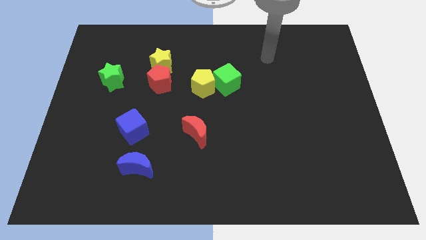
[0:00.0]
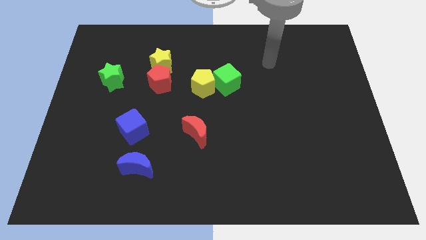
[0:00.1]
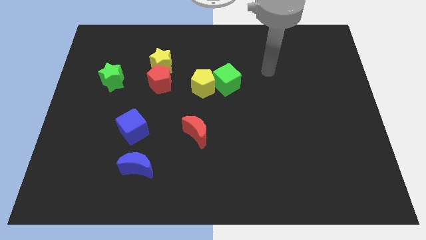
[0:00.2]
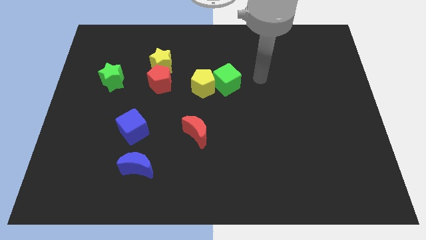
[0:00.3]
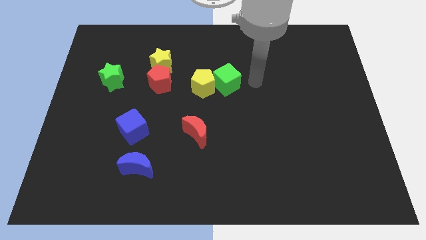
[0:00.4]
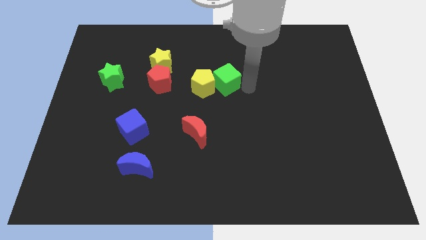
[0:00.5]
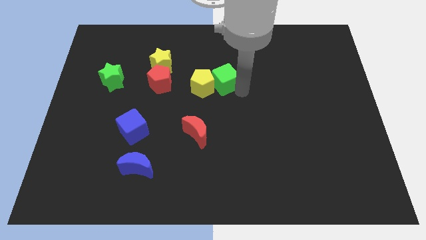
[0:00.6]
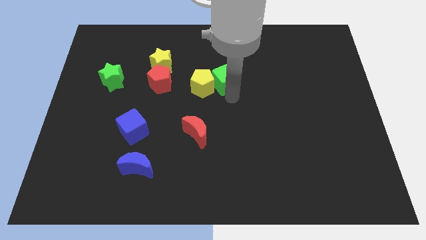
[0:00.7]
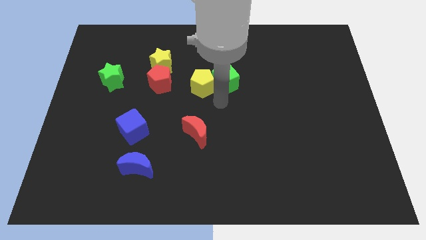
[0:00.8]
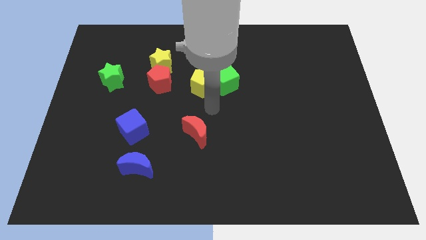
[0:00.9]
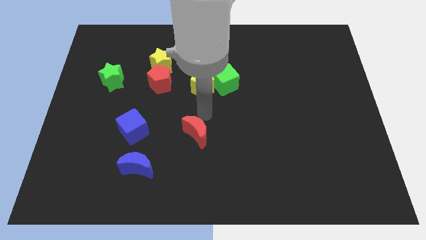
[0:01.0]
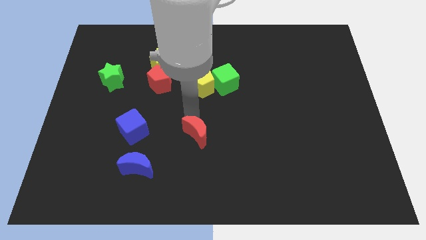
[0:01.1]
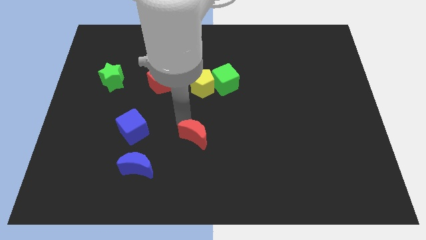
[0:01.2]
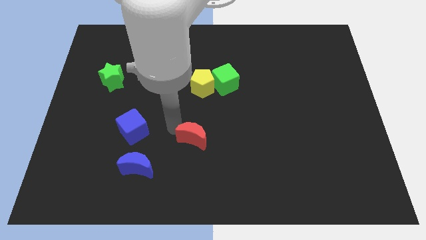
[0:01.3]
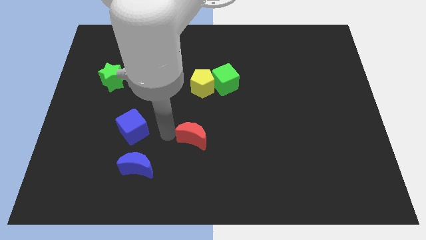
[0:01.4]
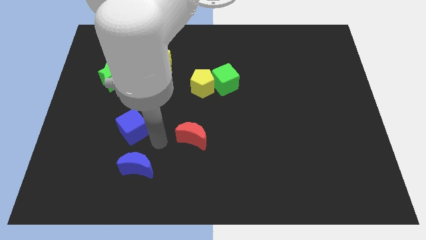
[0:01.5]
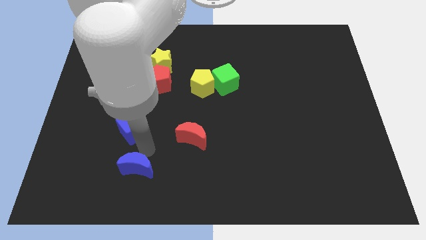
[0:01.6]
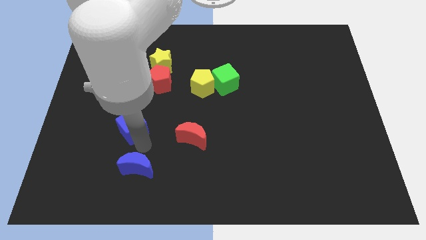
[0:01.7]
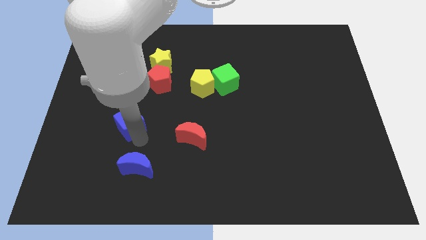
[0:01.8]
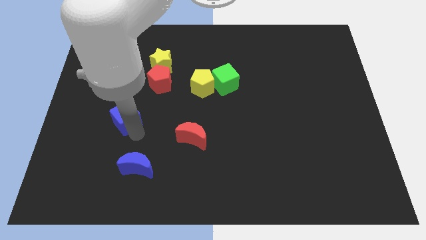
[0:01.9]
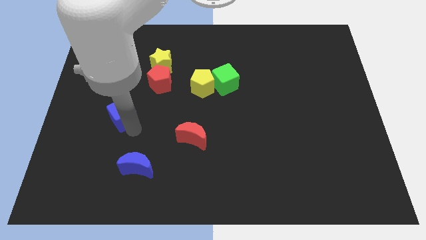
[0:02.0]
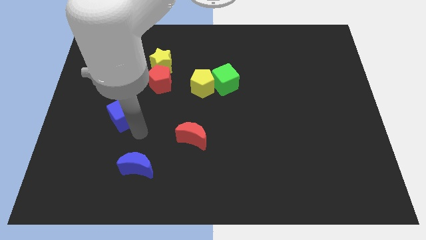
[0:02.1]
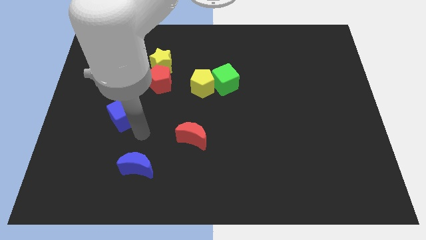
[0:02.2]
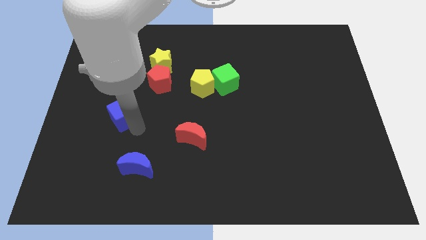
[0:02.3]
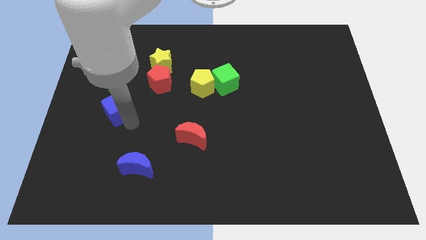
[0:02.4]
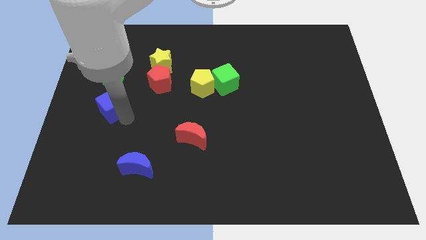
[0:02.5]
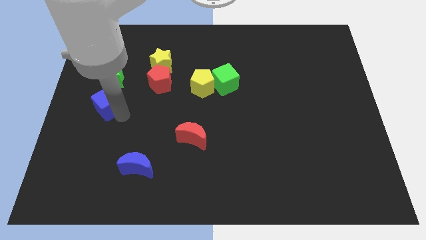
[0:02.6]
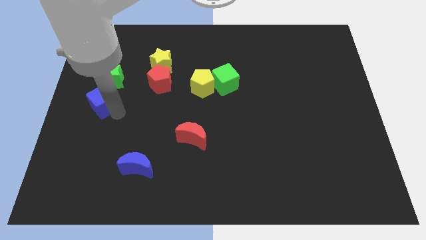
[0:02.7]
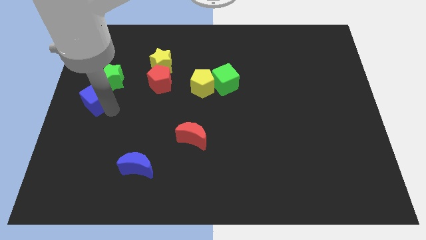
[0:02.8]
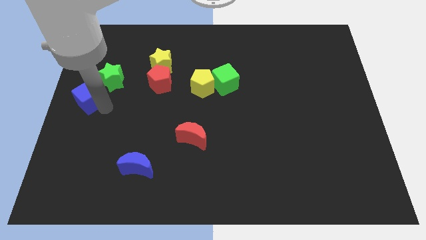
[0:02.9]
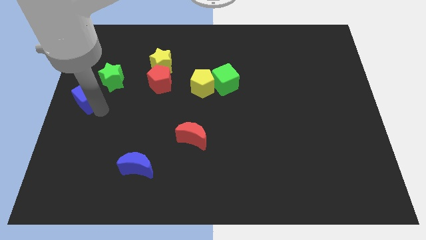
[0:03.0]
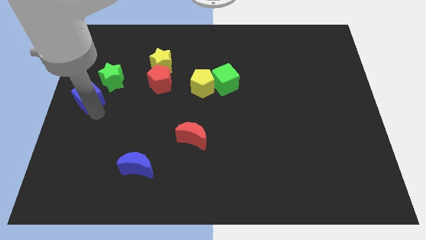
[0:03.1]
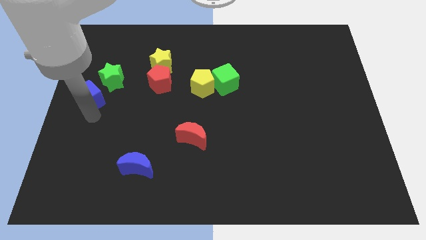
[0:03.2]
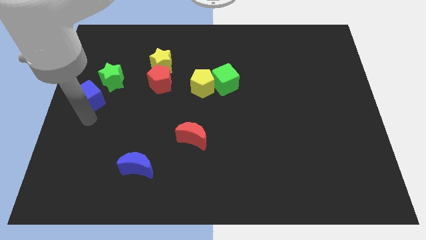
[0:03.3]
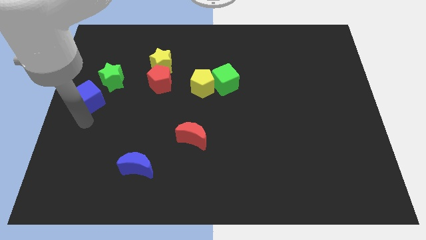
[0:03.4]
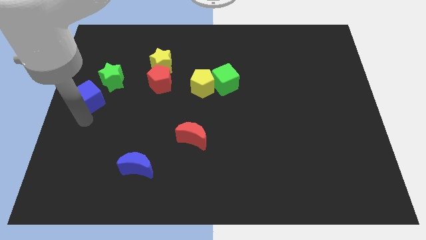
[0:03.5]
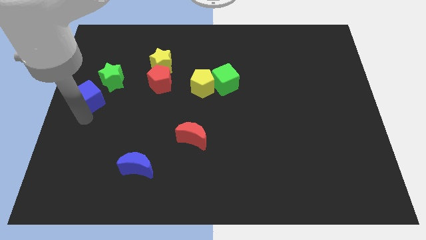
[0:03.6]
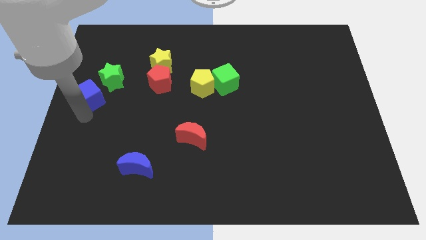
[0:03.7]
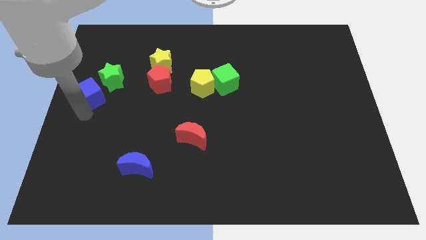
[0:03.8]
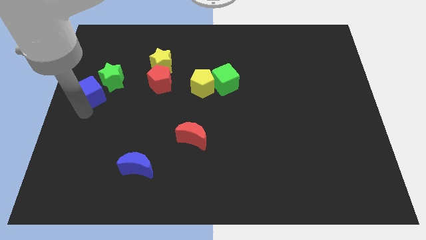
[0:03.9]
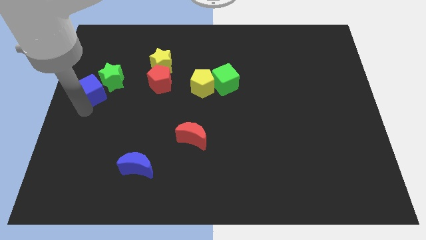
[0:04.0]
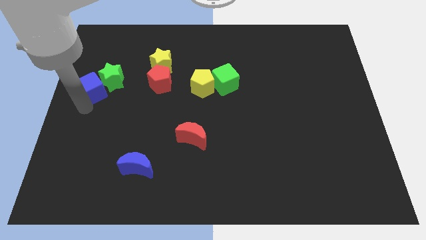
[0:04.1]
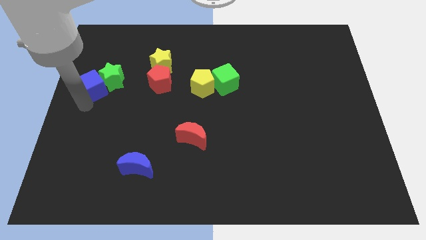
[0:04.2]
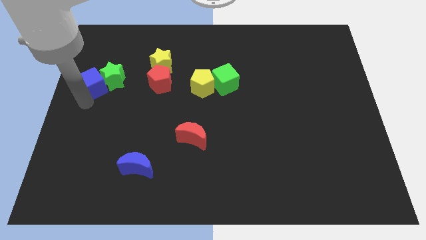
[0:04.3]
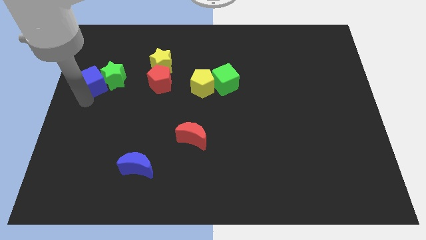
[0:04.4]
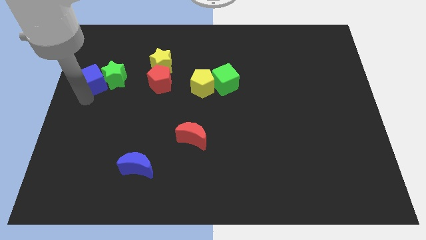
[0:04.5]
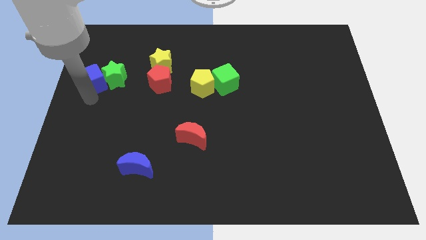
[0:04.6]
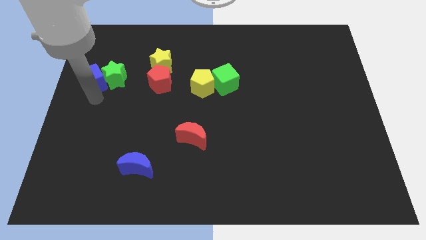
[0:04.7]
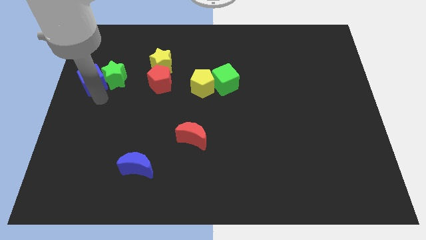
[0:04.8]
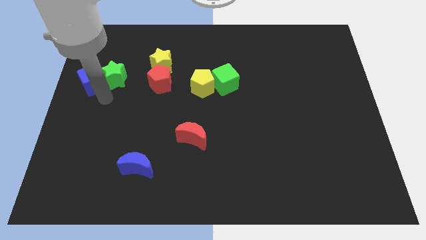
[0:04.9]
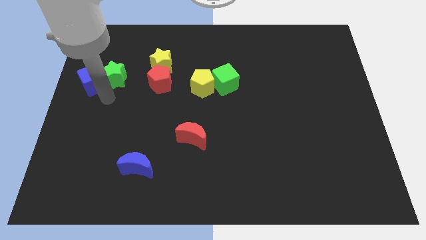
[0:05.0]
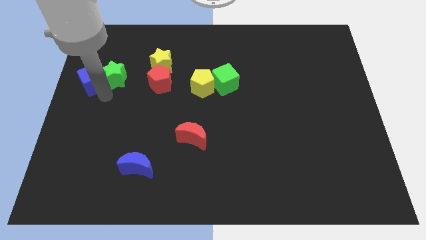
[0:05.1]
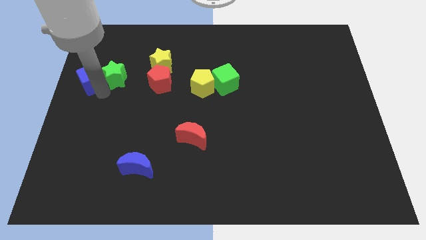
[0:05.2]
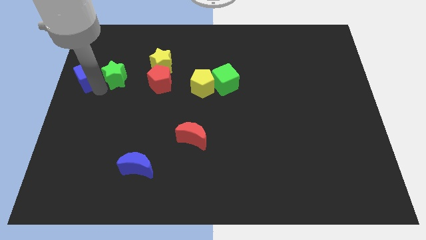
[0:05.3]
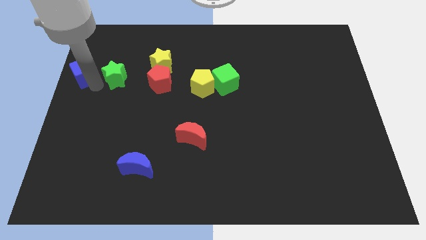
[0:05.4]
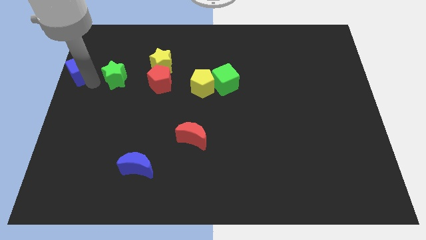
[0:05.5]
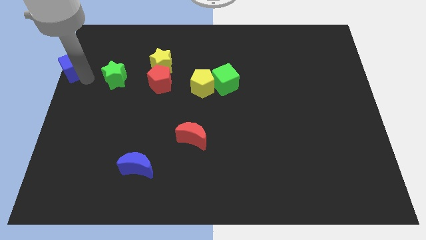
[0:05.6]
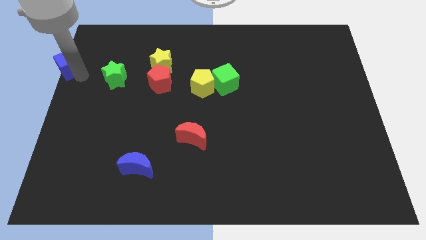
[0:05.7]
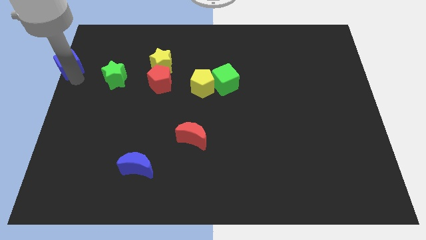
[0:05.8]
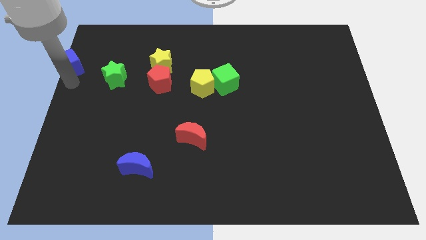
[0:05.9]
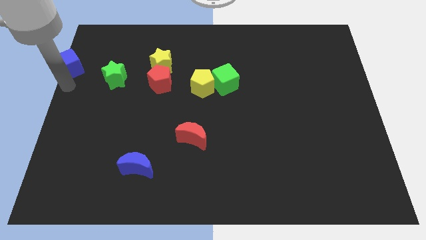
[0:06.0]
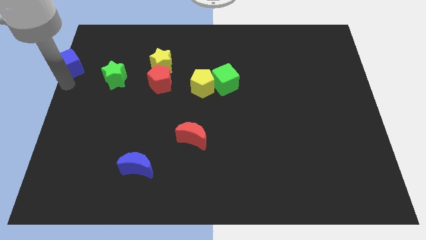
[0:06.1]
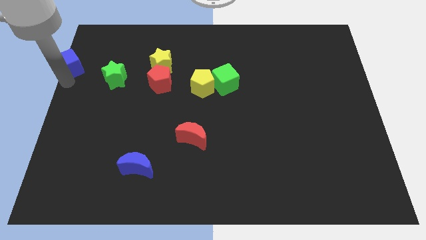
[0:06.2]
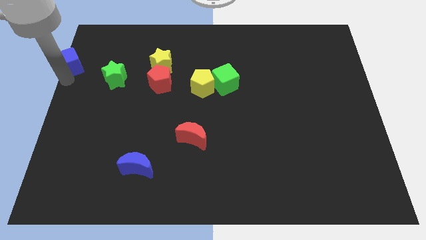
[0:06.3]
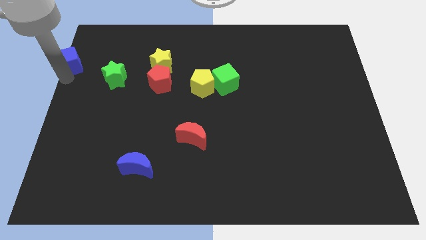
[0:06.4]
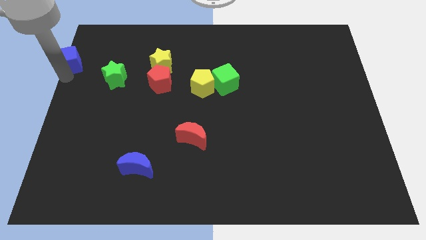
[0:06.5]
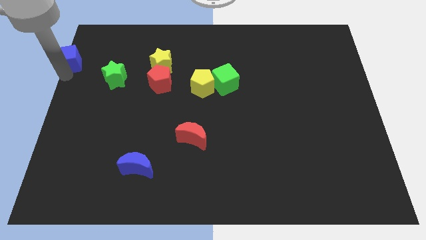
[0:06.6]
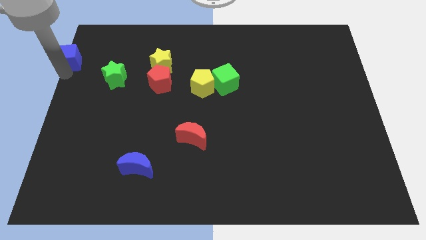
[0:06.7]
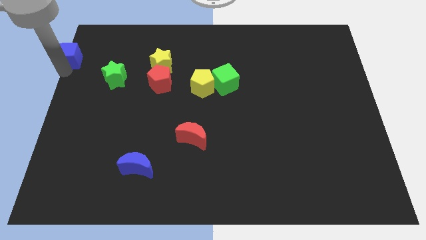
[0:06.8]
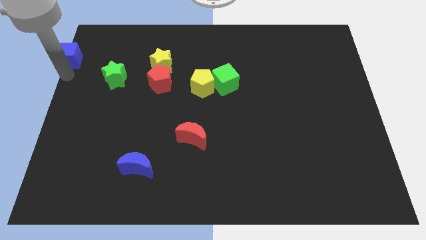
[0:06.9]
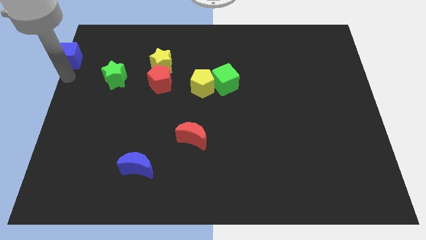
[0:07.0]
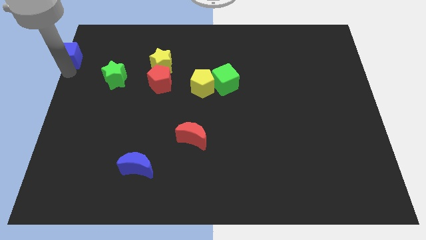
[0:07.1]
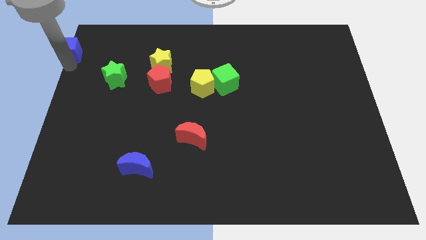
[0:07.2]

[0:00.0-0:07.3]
slide the blue cube to the upper left corner
